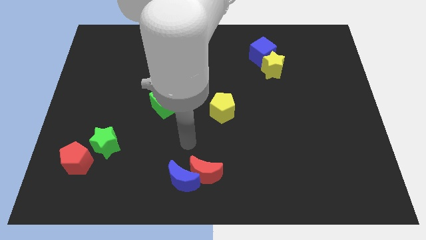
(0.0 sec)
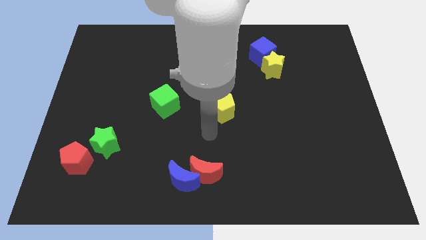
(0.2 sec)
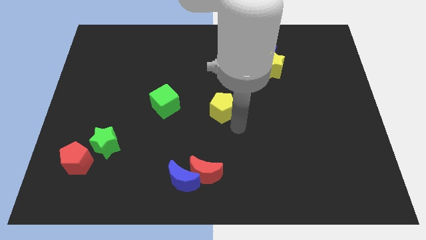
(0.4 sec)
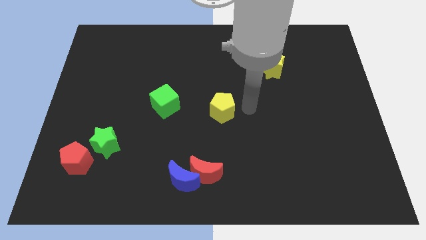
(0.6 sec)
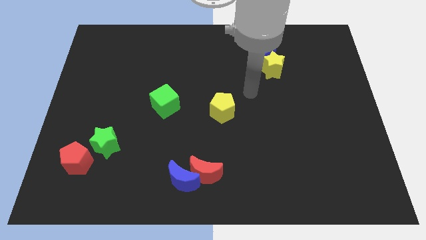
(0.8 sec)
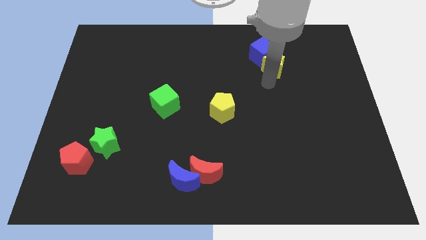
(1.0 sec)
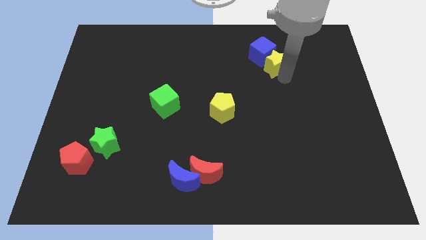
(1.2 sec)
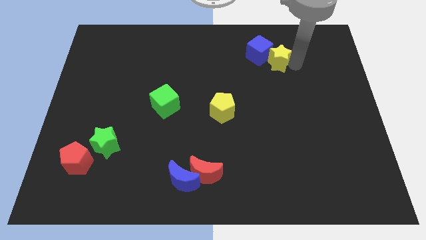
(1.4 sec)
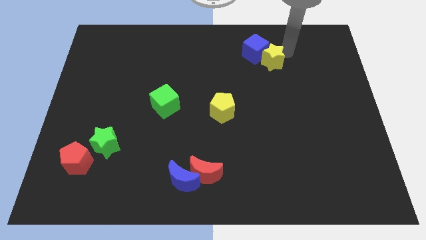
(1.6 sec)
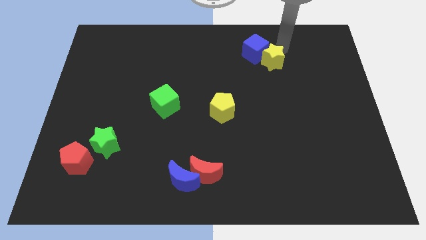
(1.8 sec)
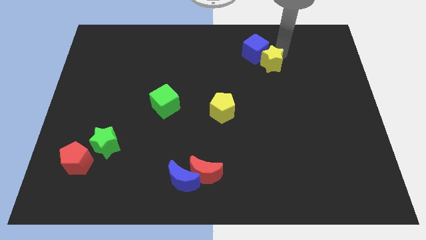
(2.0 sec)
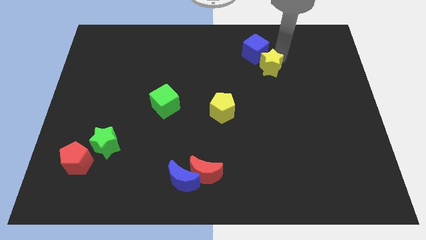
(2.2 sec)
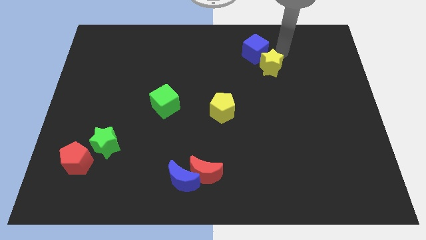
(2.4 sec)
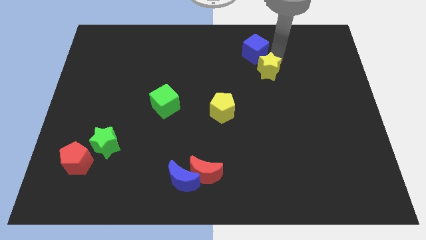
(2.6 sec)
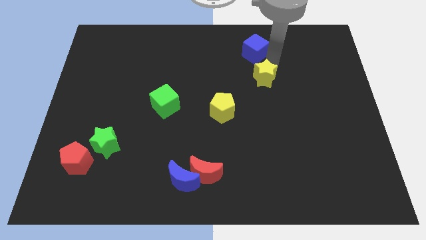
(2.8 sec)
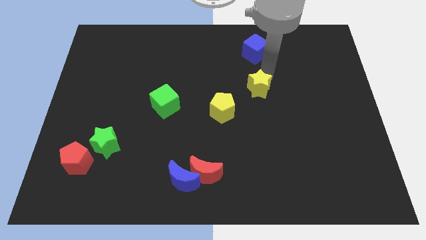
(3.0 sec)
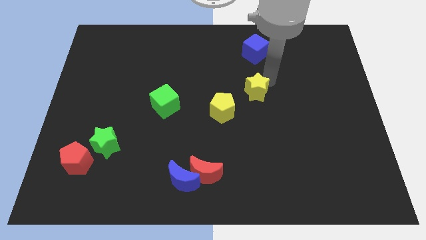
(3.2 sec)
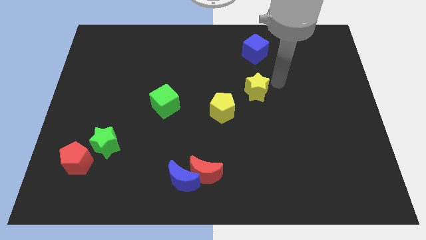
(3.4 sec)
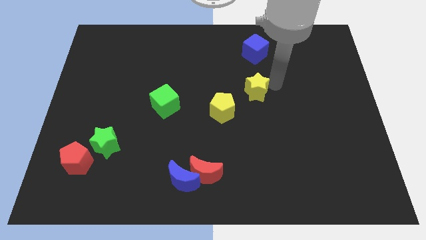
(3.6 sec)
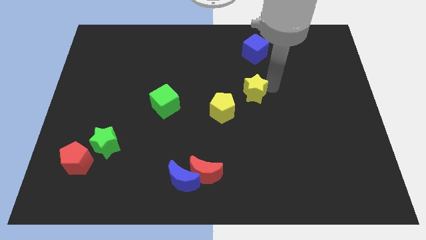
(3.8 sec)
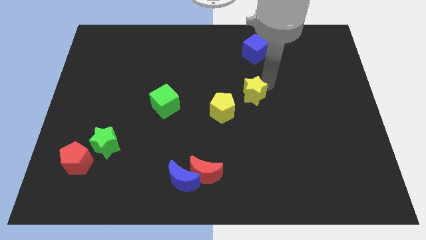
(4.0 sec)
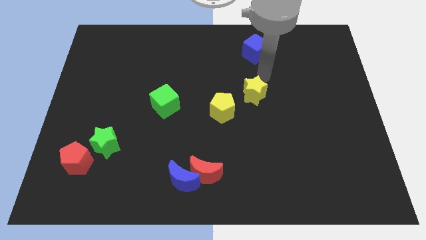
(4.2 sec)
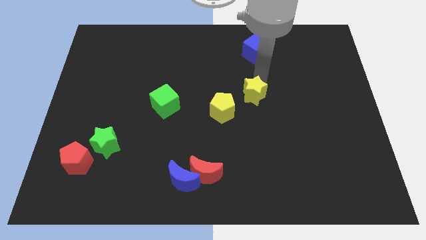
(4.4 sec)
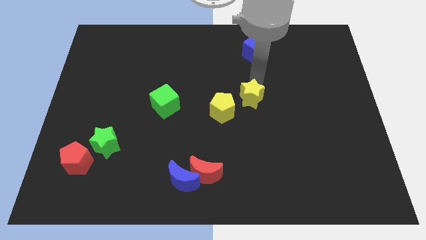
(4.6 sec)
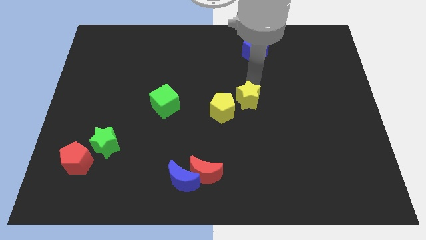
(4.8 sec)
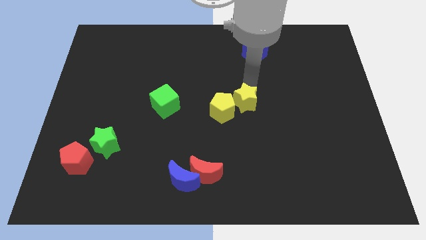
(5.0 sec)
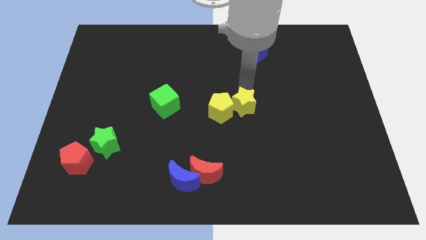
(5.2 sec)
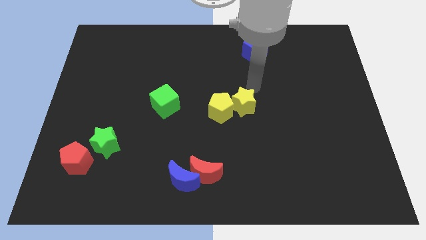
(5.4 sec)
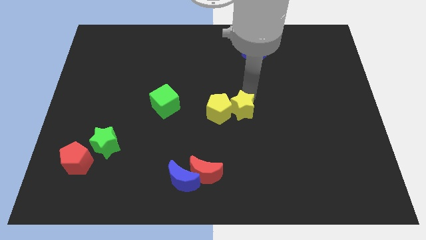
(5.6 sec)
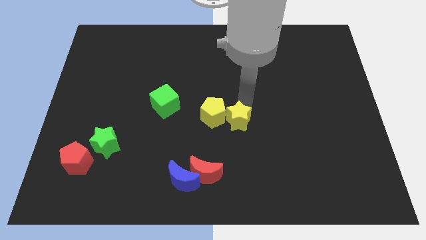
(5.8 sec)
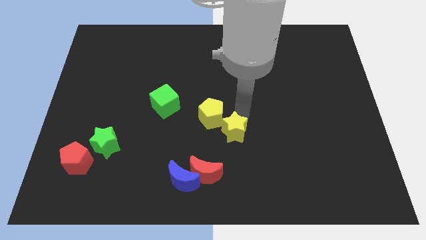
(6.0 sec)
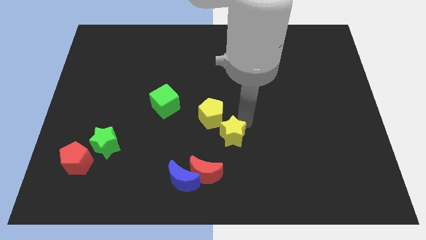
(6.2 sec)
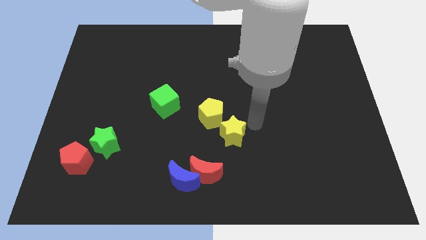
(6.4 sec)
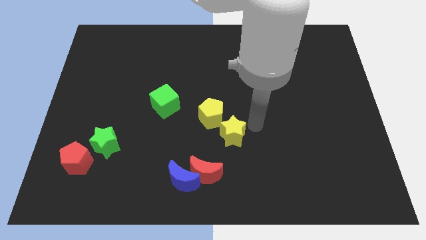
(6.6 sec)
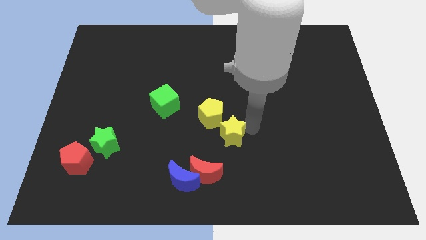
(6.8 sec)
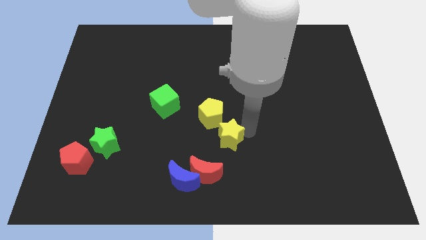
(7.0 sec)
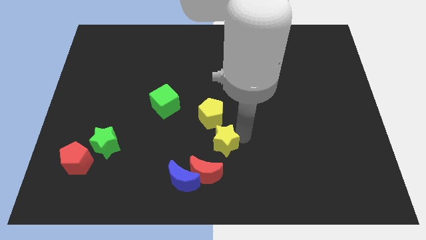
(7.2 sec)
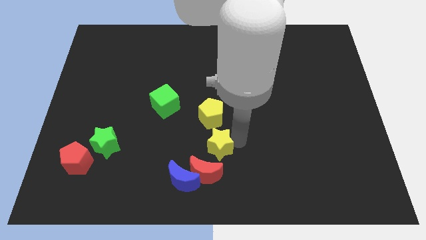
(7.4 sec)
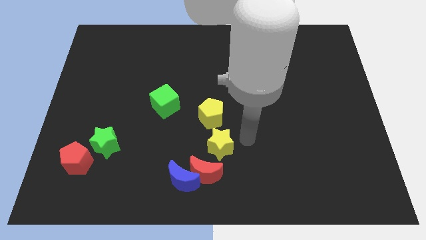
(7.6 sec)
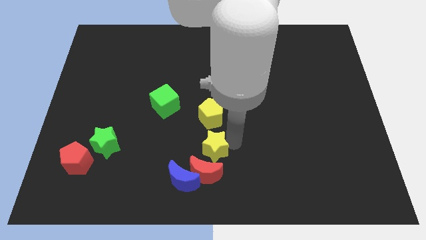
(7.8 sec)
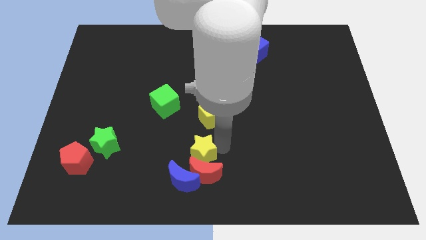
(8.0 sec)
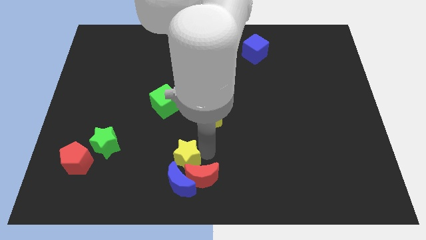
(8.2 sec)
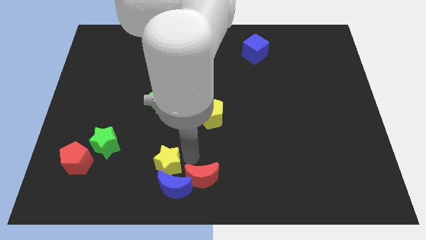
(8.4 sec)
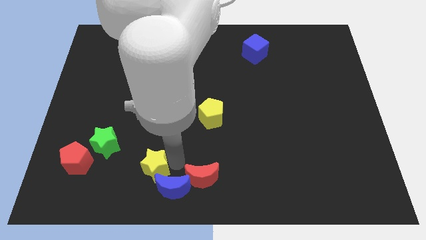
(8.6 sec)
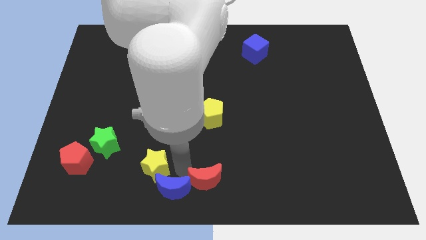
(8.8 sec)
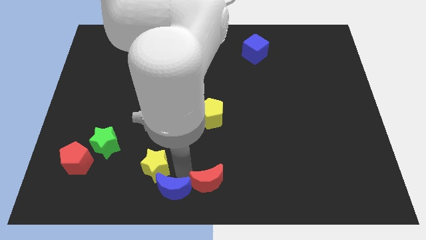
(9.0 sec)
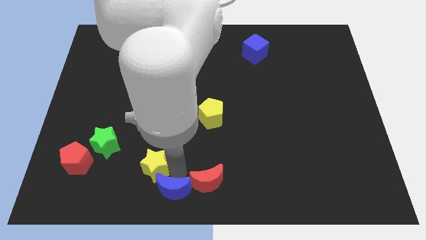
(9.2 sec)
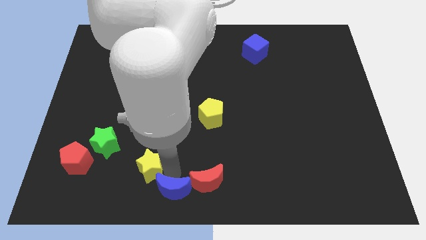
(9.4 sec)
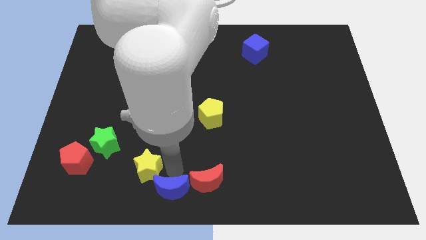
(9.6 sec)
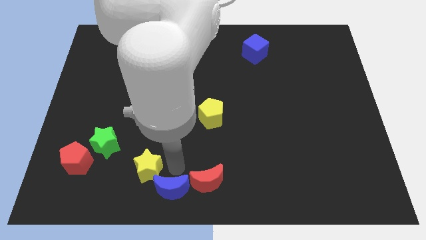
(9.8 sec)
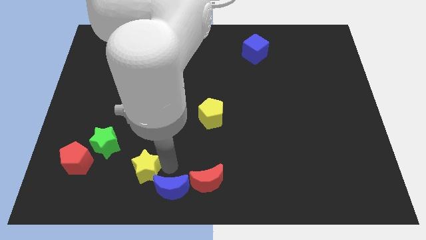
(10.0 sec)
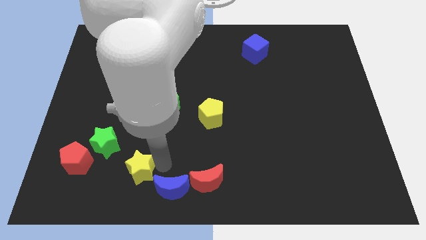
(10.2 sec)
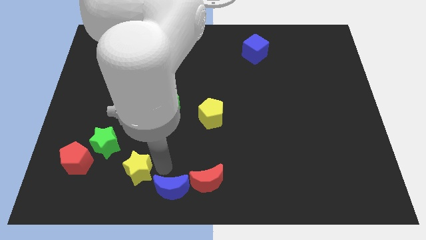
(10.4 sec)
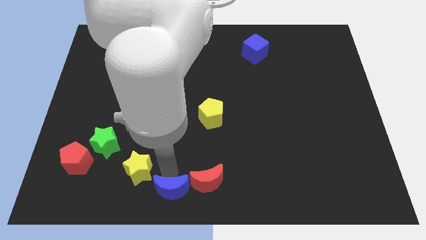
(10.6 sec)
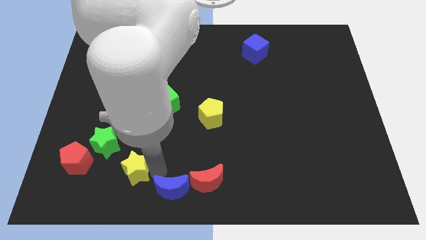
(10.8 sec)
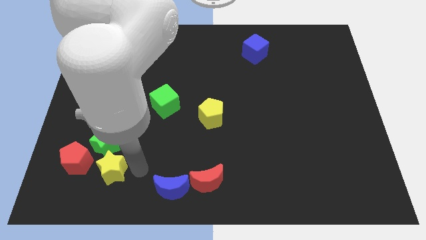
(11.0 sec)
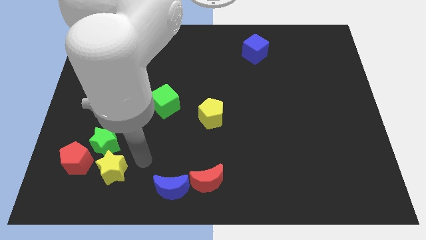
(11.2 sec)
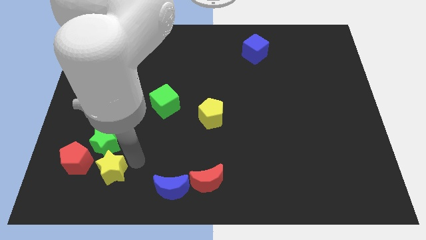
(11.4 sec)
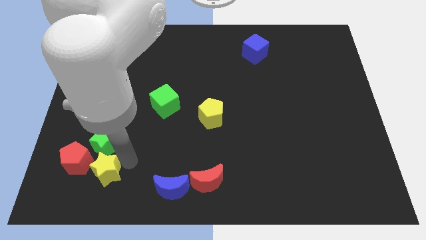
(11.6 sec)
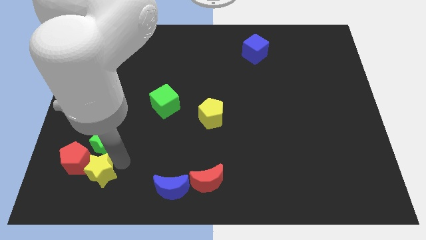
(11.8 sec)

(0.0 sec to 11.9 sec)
move the yellow star to the bottom left of the green star

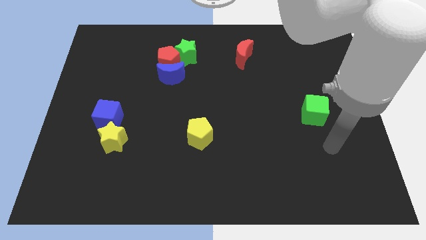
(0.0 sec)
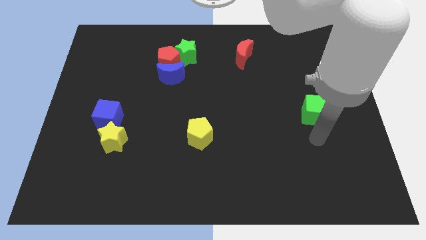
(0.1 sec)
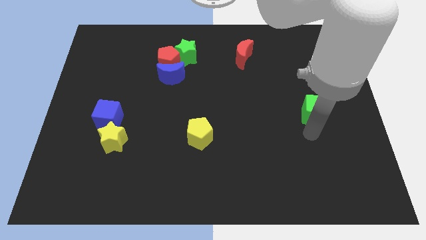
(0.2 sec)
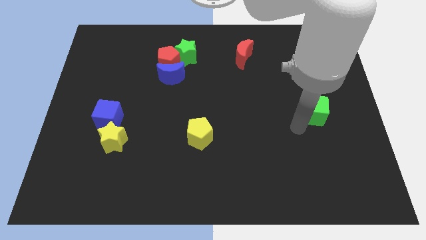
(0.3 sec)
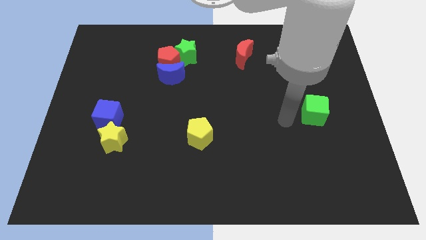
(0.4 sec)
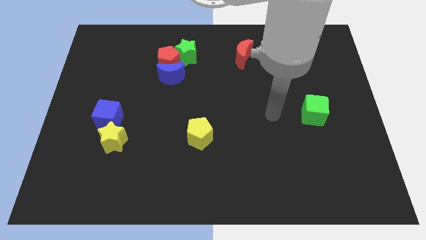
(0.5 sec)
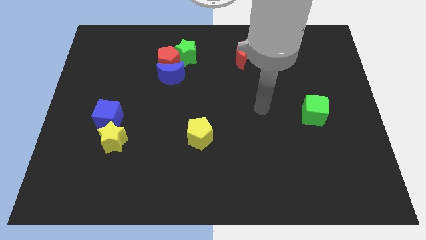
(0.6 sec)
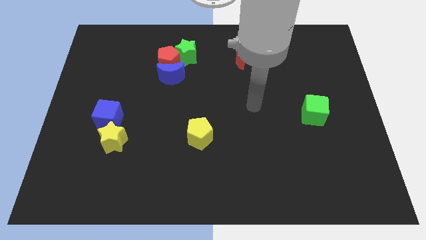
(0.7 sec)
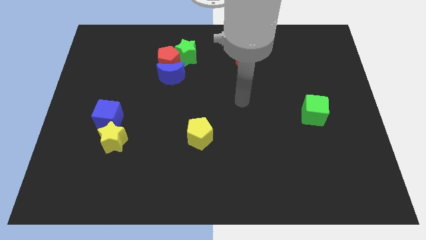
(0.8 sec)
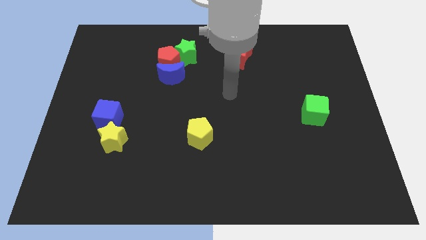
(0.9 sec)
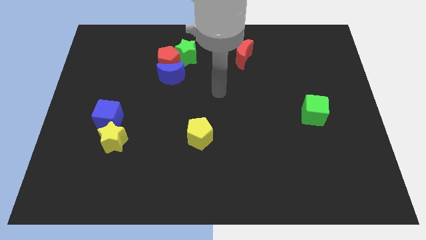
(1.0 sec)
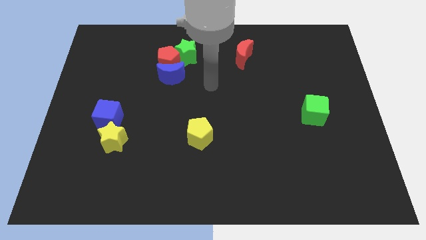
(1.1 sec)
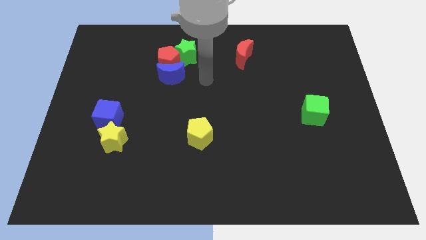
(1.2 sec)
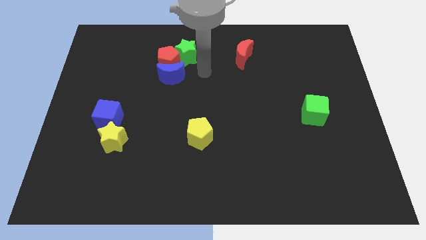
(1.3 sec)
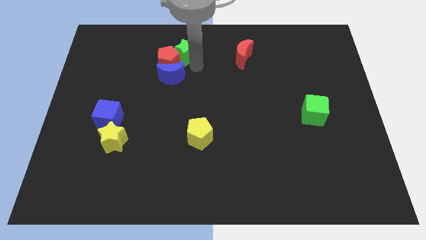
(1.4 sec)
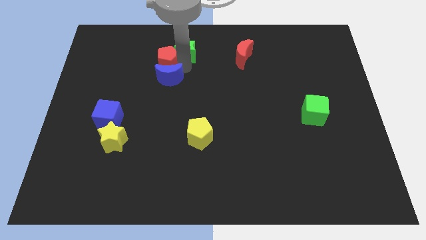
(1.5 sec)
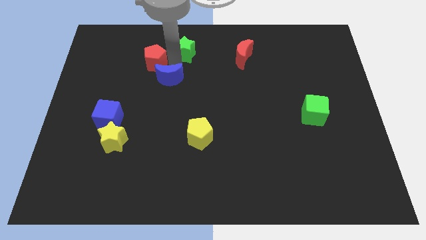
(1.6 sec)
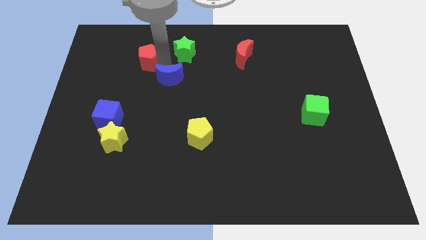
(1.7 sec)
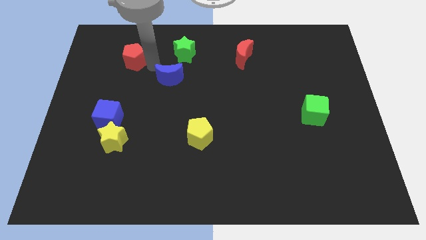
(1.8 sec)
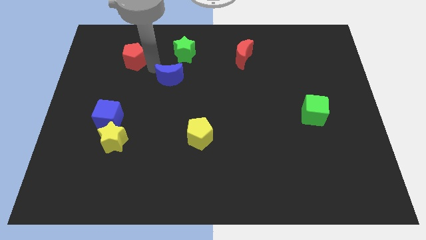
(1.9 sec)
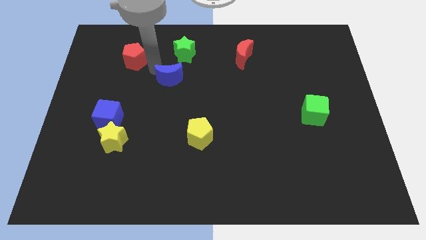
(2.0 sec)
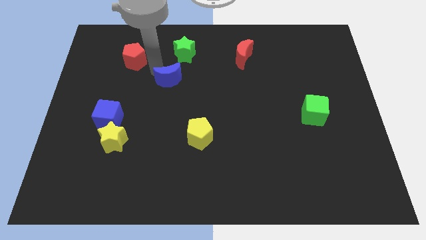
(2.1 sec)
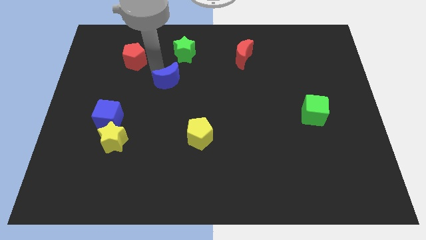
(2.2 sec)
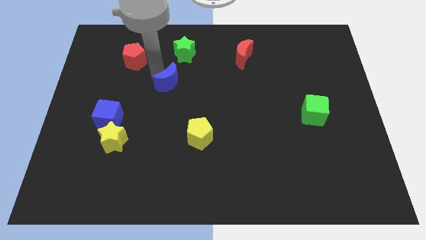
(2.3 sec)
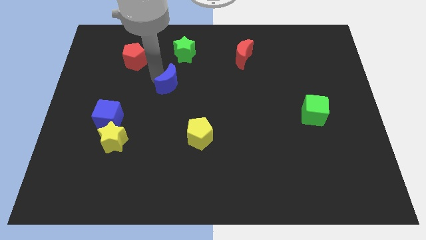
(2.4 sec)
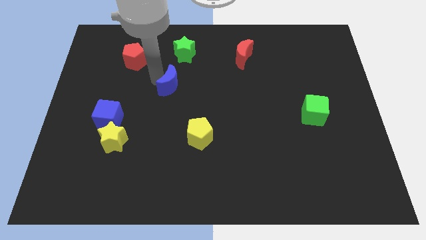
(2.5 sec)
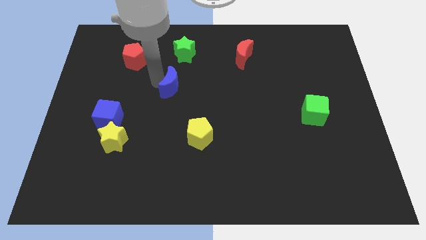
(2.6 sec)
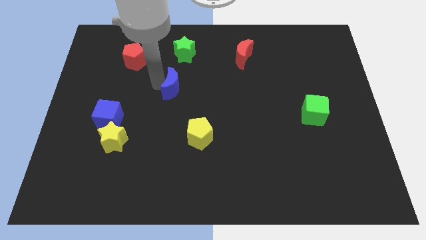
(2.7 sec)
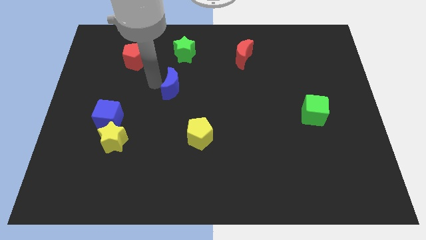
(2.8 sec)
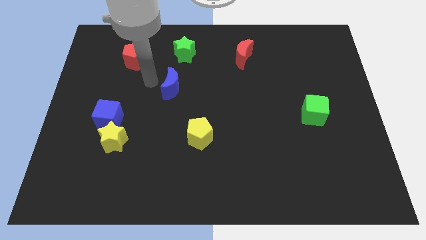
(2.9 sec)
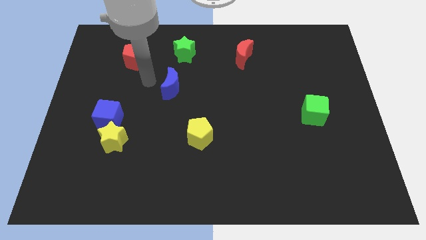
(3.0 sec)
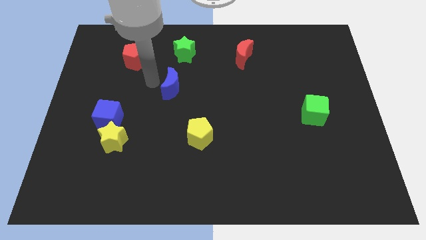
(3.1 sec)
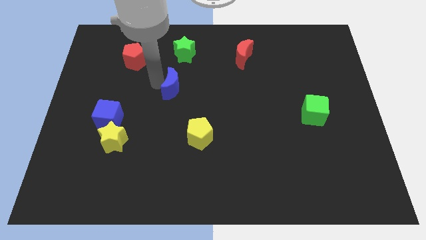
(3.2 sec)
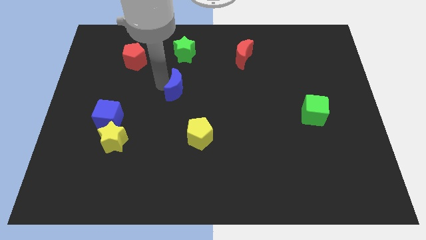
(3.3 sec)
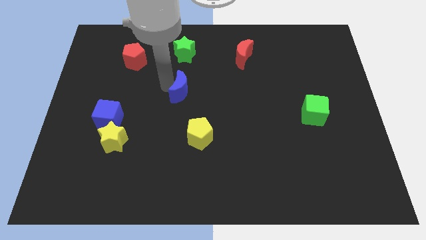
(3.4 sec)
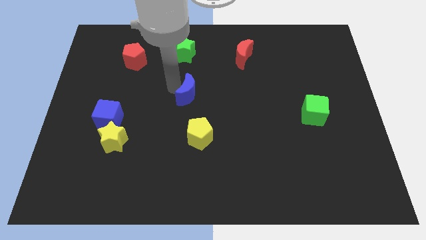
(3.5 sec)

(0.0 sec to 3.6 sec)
move the blue moon to the top of the yellow pentagon
